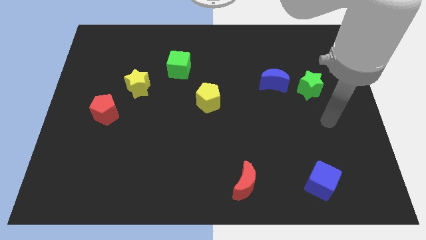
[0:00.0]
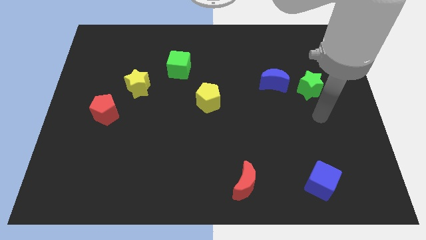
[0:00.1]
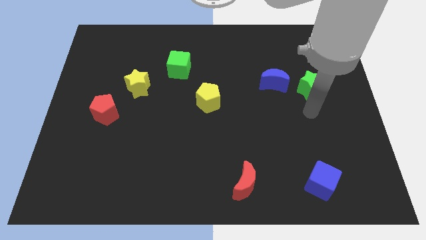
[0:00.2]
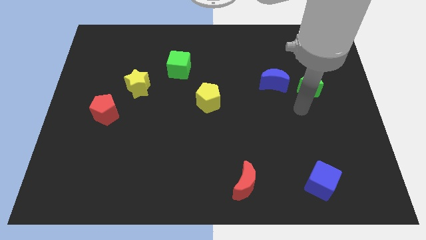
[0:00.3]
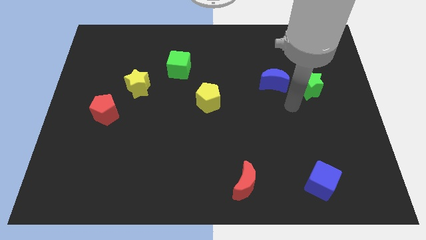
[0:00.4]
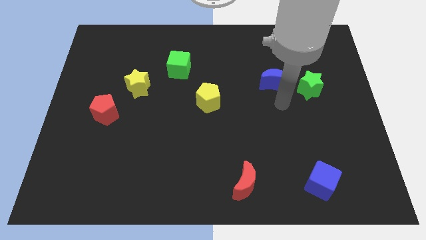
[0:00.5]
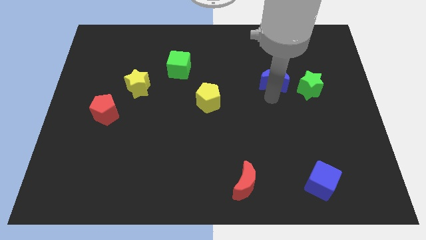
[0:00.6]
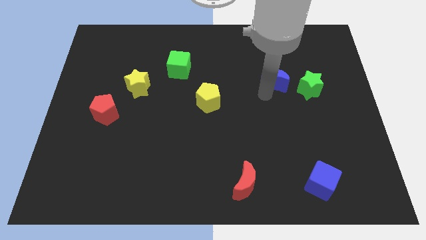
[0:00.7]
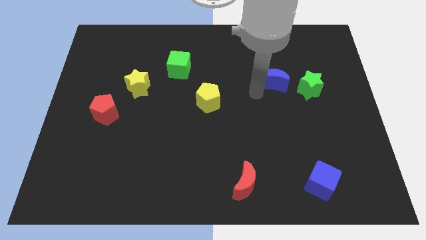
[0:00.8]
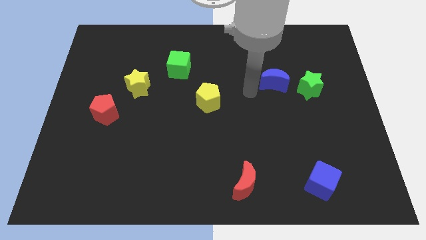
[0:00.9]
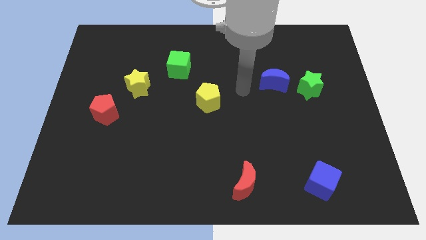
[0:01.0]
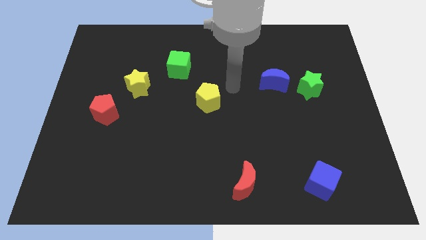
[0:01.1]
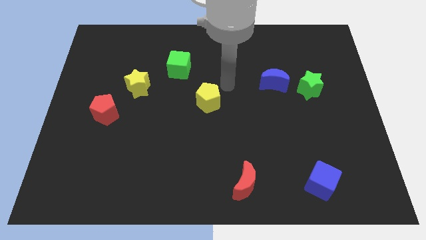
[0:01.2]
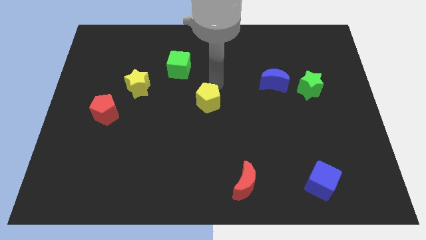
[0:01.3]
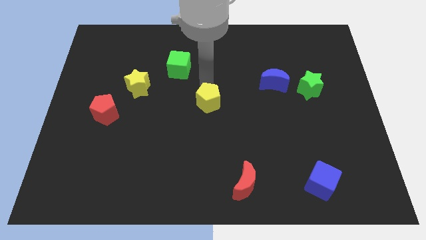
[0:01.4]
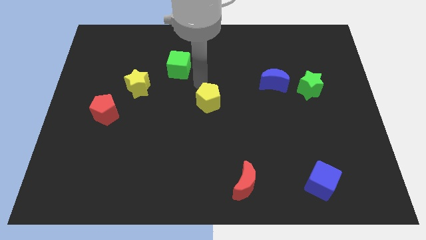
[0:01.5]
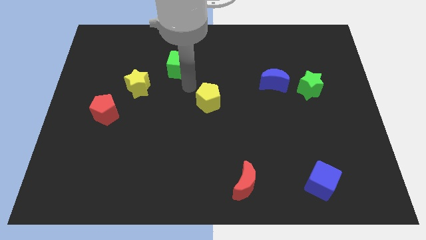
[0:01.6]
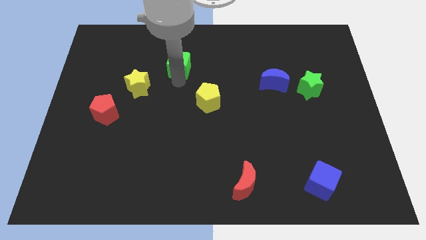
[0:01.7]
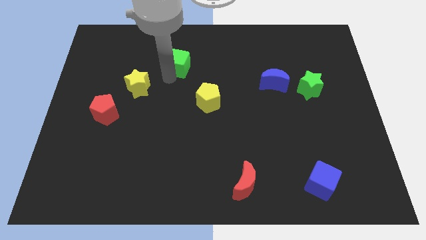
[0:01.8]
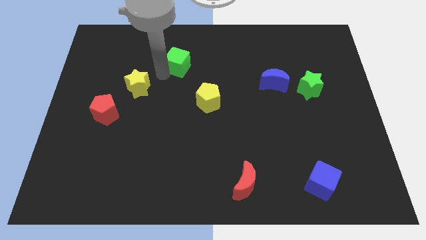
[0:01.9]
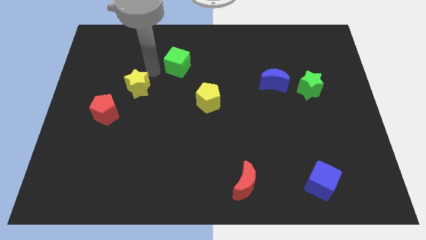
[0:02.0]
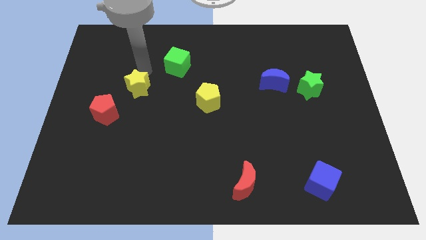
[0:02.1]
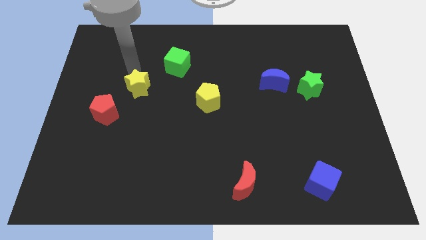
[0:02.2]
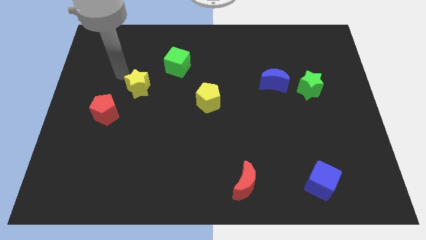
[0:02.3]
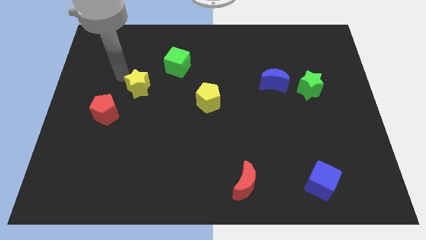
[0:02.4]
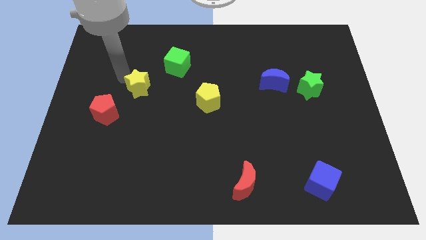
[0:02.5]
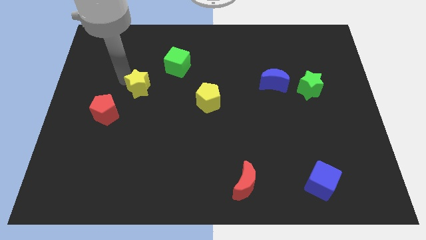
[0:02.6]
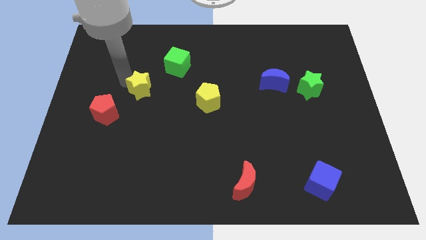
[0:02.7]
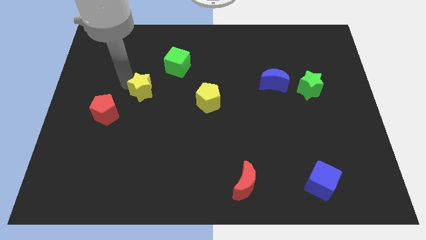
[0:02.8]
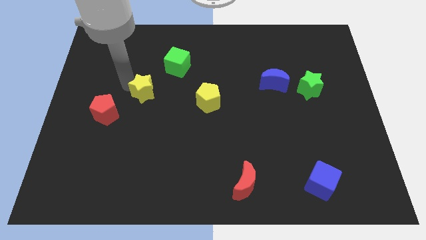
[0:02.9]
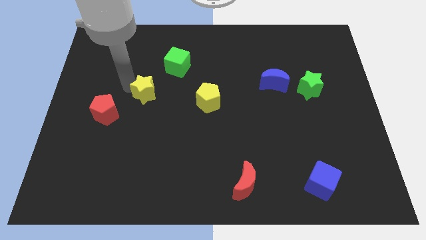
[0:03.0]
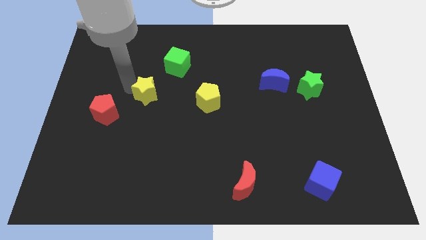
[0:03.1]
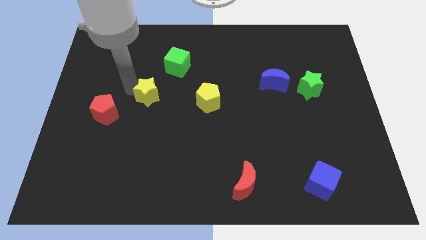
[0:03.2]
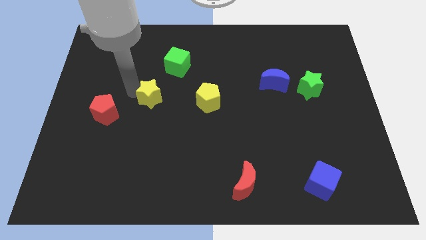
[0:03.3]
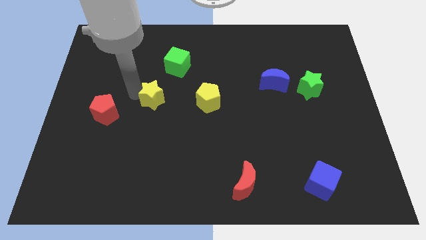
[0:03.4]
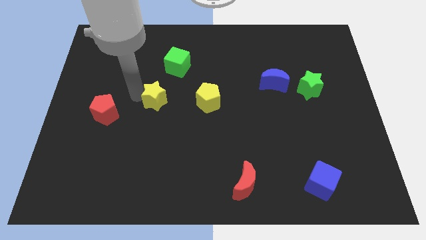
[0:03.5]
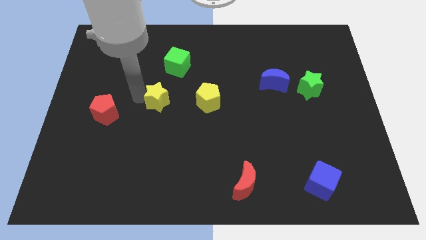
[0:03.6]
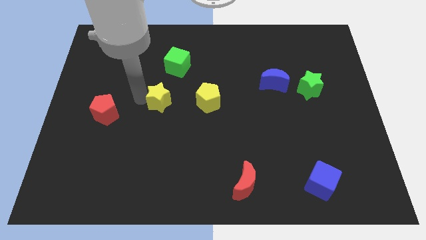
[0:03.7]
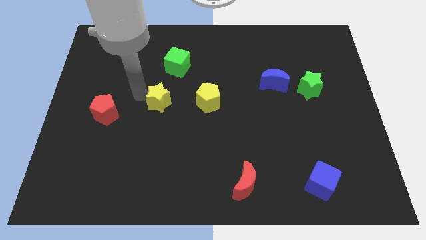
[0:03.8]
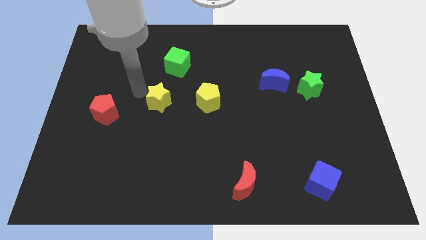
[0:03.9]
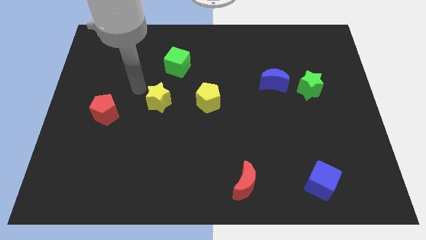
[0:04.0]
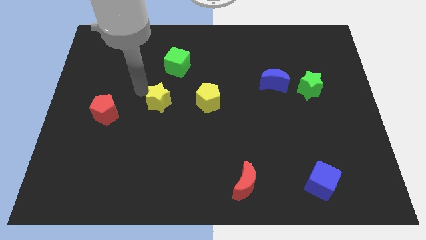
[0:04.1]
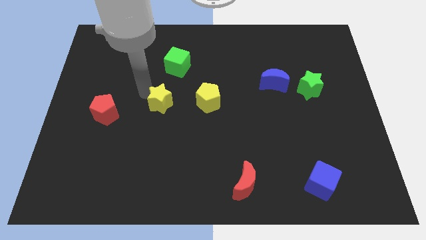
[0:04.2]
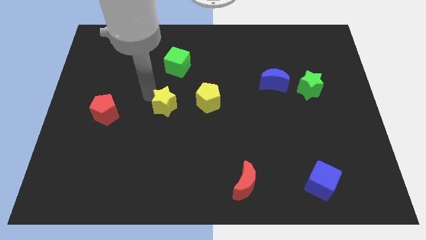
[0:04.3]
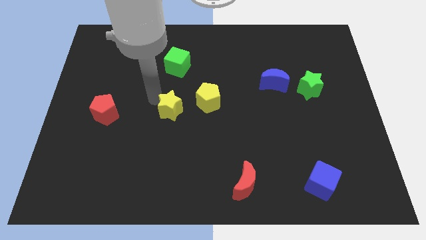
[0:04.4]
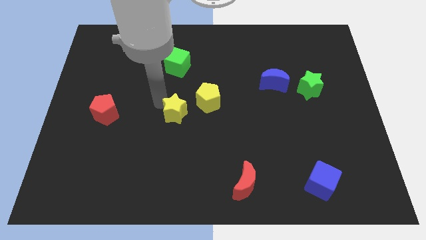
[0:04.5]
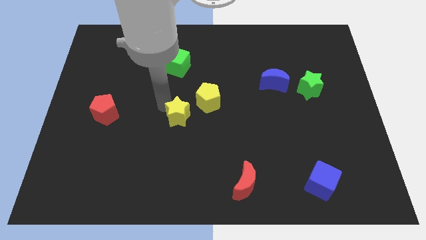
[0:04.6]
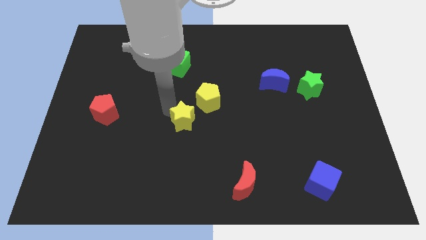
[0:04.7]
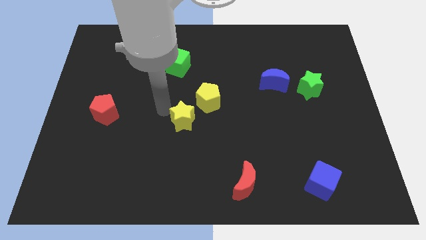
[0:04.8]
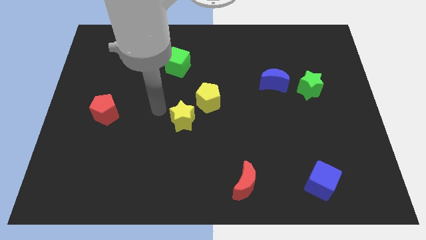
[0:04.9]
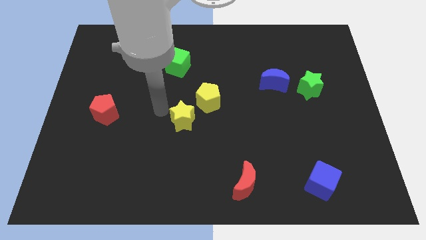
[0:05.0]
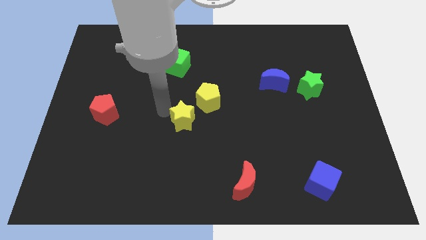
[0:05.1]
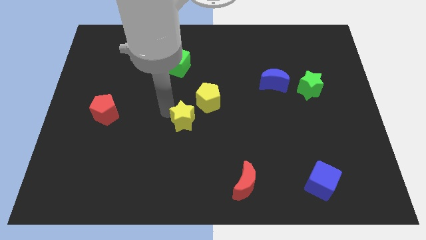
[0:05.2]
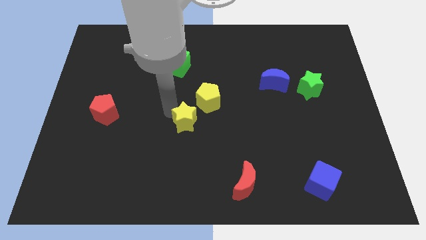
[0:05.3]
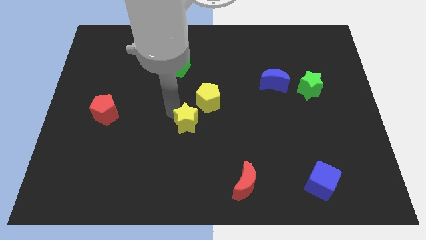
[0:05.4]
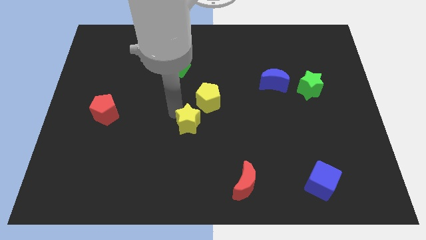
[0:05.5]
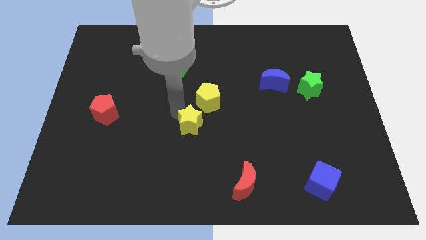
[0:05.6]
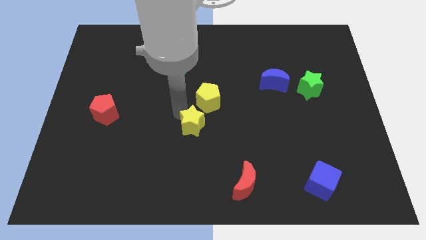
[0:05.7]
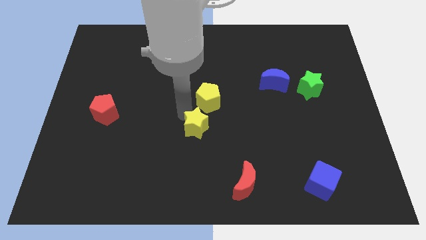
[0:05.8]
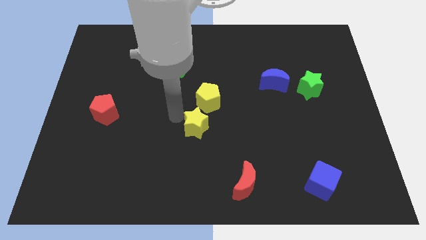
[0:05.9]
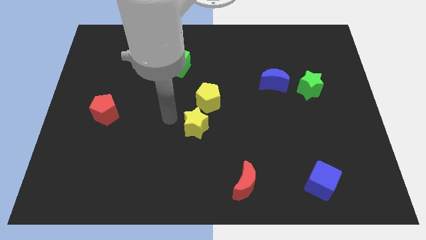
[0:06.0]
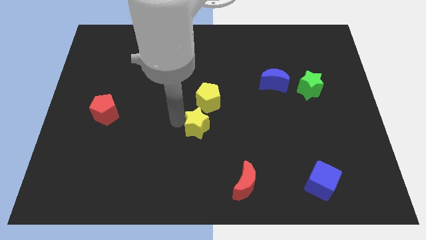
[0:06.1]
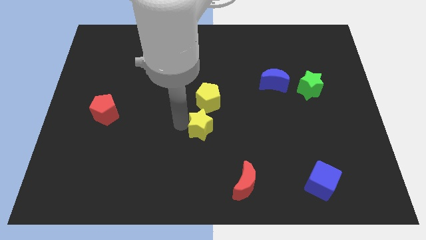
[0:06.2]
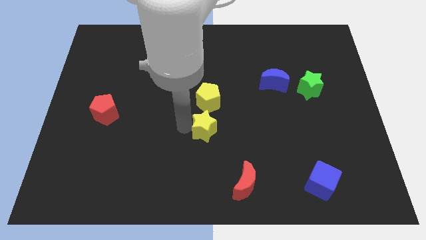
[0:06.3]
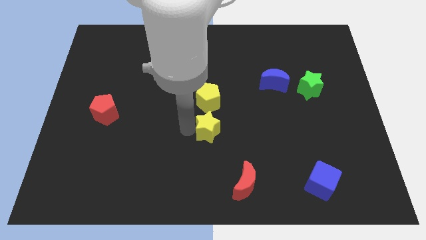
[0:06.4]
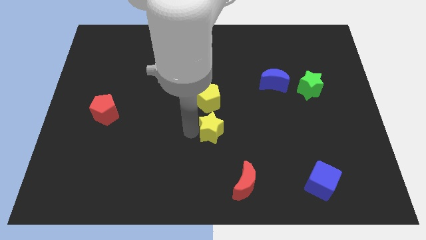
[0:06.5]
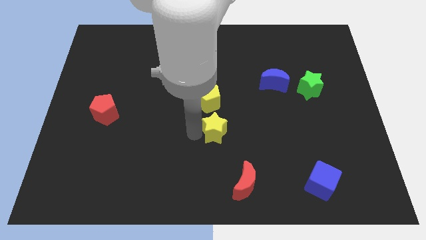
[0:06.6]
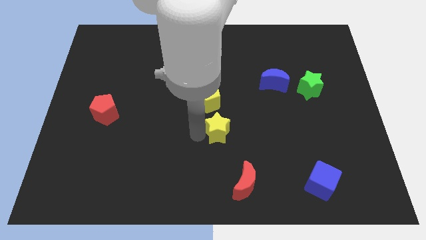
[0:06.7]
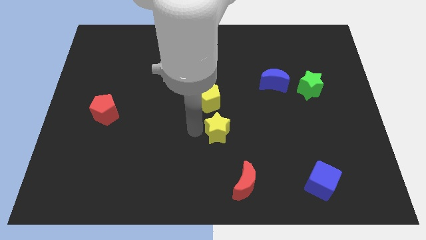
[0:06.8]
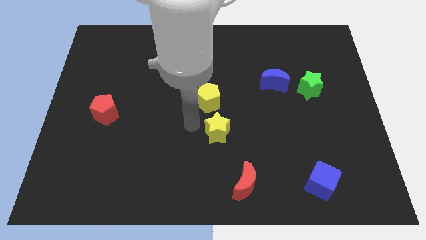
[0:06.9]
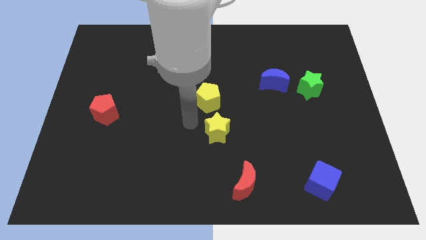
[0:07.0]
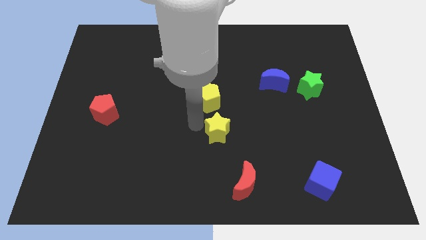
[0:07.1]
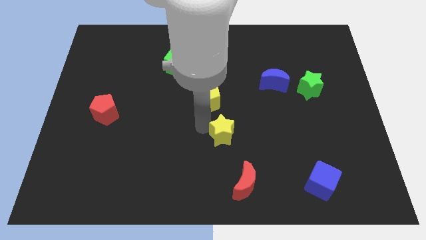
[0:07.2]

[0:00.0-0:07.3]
push the yellow star to the top of the red moon
